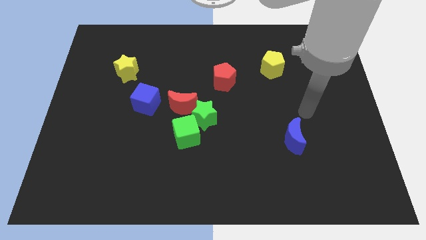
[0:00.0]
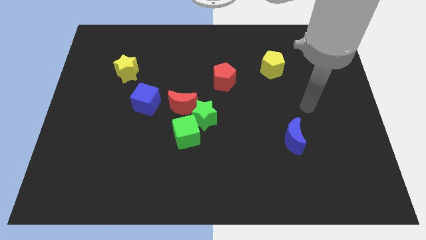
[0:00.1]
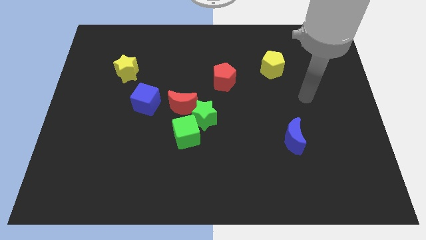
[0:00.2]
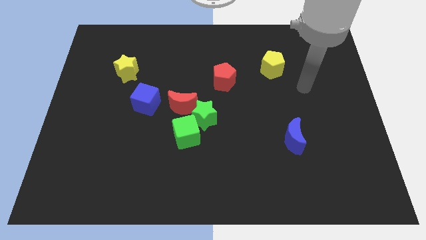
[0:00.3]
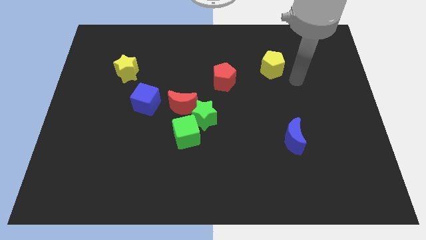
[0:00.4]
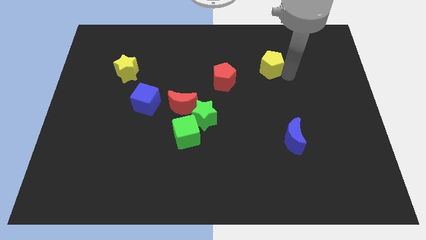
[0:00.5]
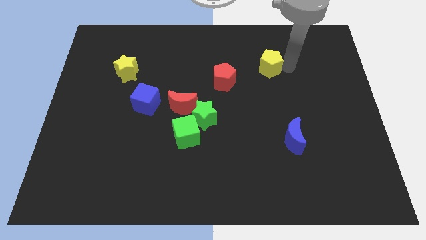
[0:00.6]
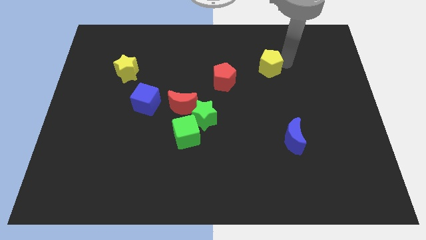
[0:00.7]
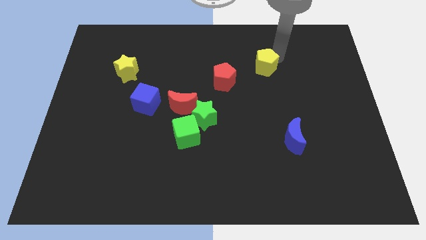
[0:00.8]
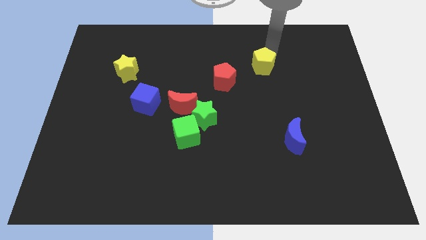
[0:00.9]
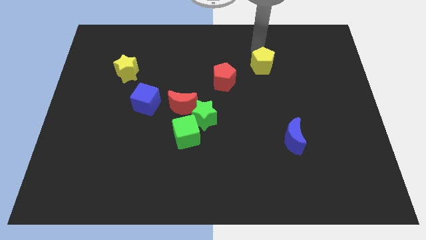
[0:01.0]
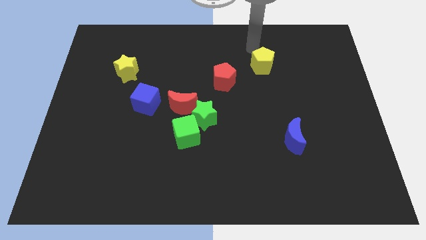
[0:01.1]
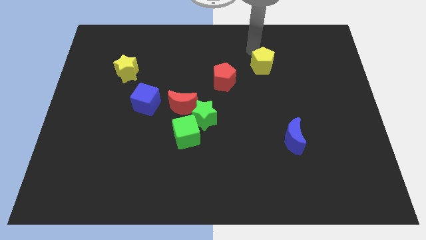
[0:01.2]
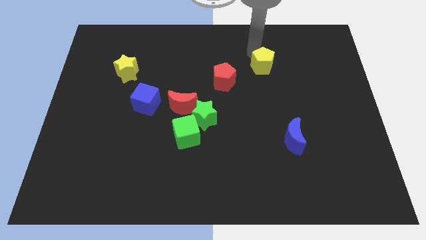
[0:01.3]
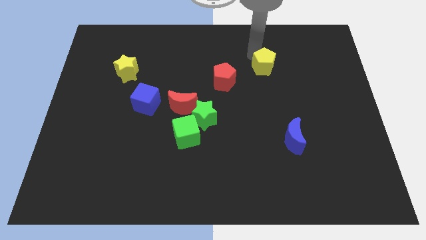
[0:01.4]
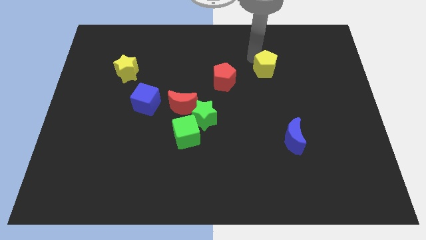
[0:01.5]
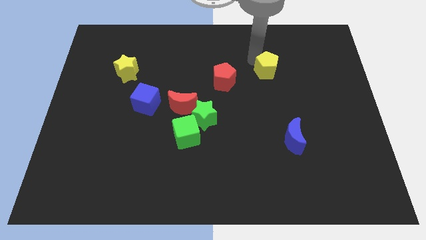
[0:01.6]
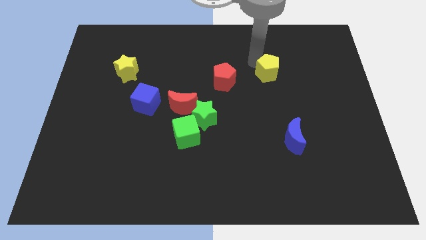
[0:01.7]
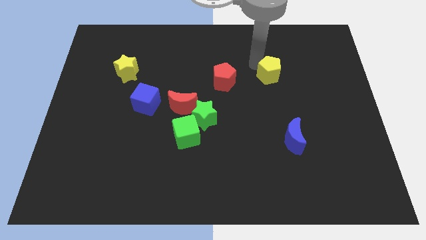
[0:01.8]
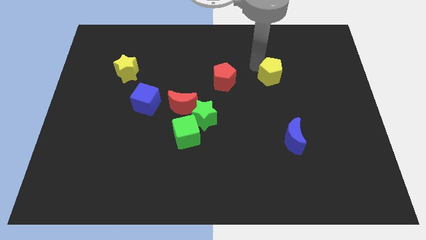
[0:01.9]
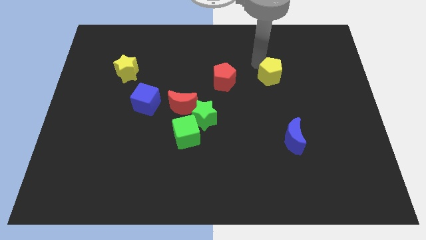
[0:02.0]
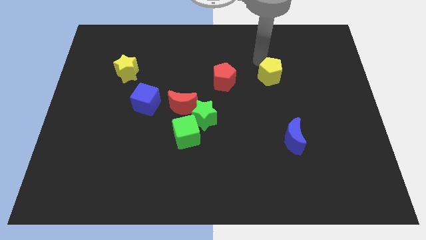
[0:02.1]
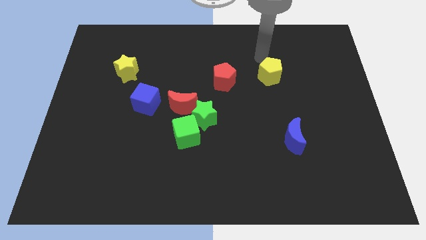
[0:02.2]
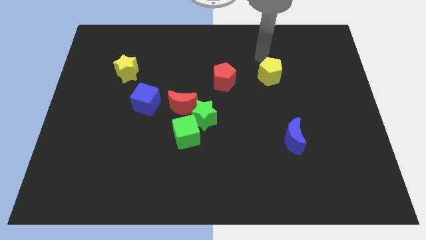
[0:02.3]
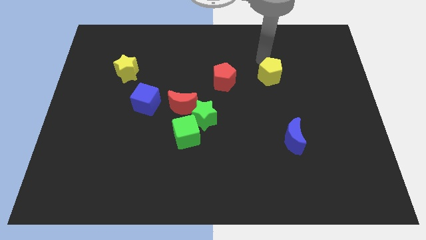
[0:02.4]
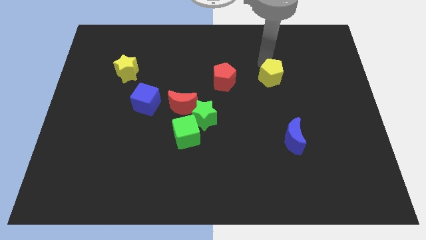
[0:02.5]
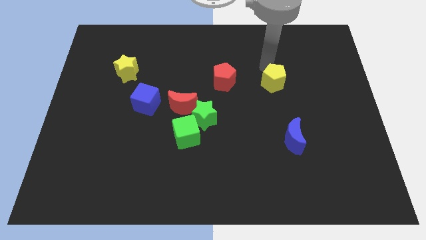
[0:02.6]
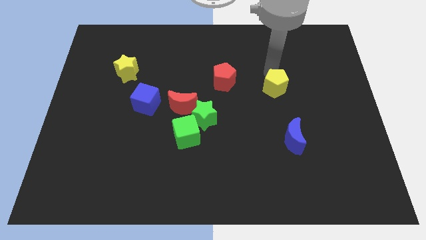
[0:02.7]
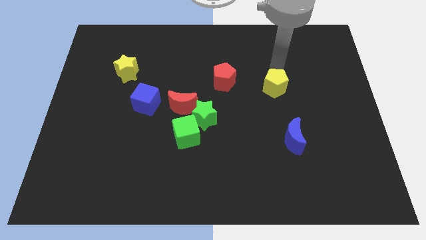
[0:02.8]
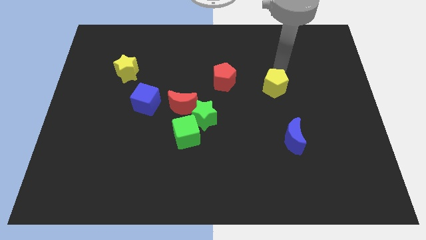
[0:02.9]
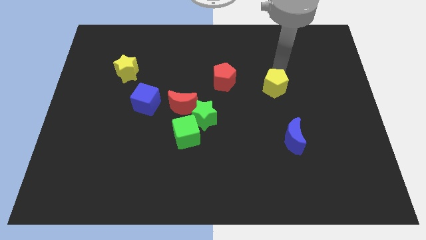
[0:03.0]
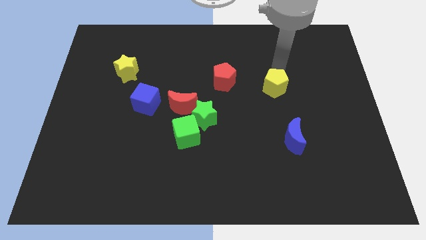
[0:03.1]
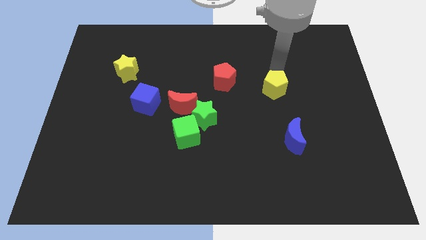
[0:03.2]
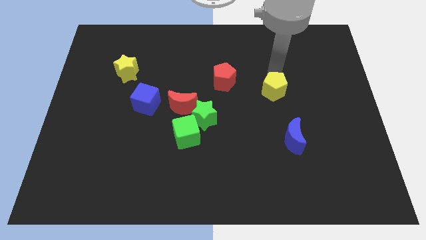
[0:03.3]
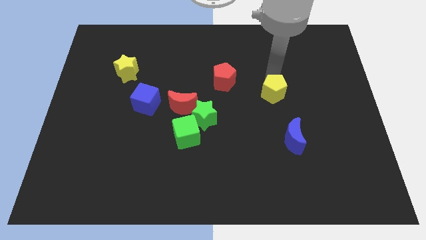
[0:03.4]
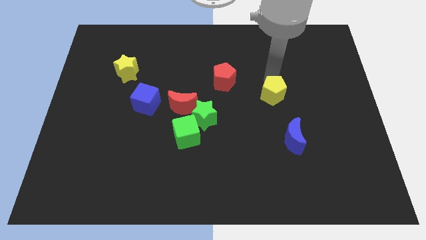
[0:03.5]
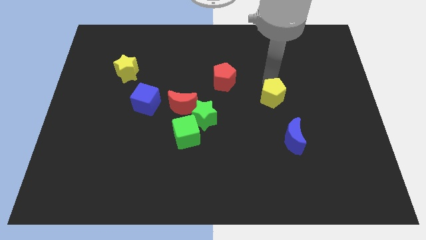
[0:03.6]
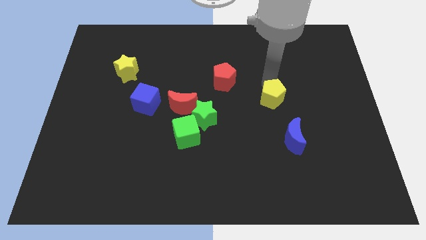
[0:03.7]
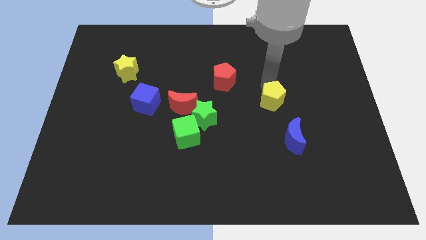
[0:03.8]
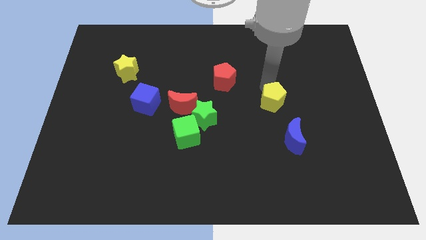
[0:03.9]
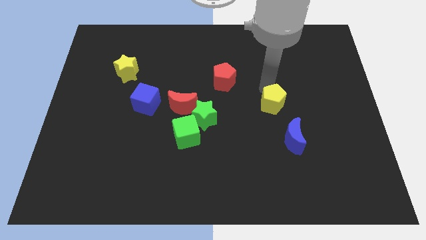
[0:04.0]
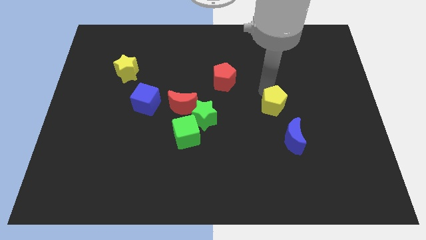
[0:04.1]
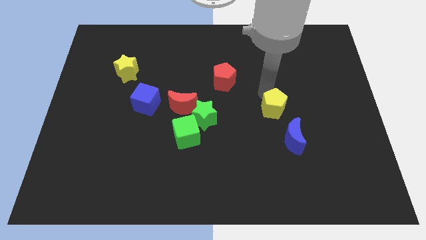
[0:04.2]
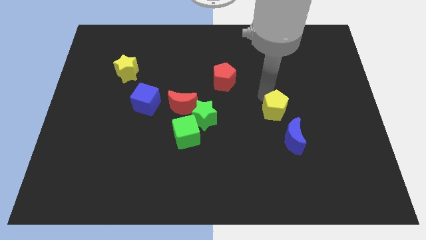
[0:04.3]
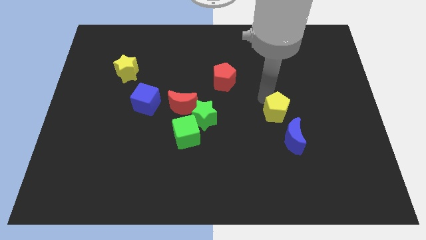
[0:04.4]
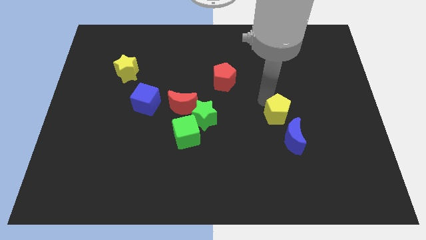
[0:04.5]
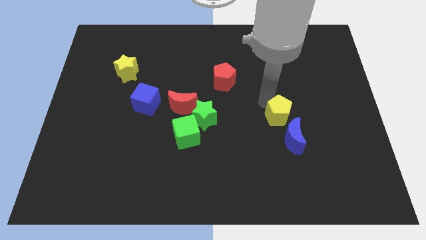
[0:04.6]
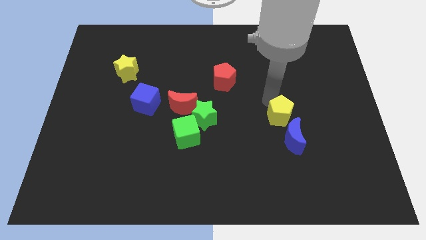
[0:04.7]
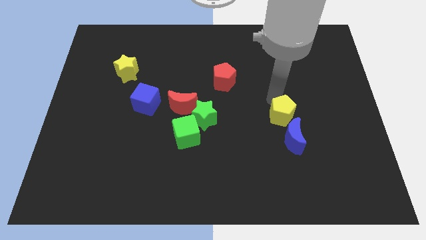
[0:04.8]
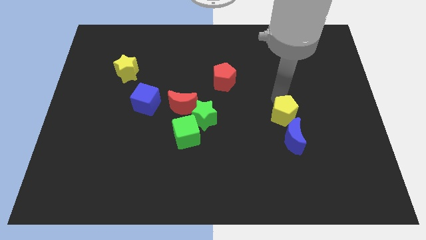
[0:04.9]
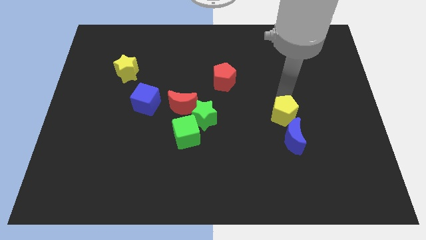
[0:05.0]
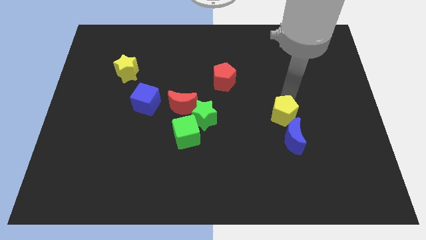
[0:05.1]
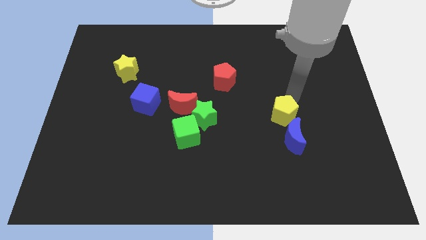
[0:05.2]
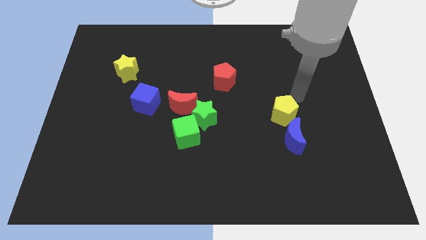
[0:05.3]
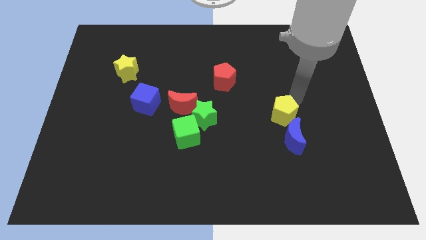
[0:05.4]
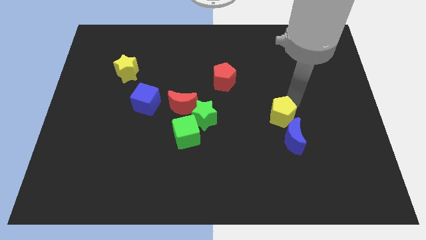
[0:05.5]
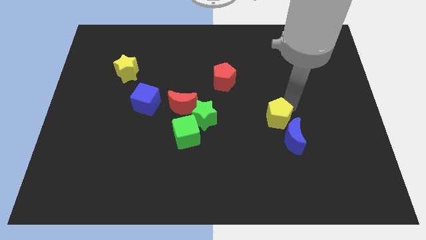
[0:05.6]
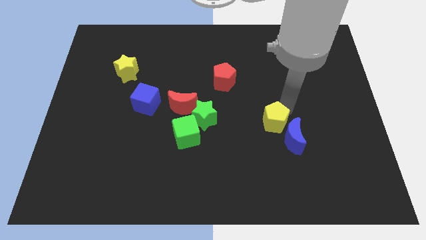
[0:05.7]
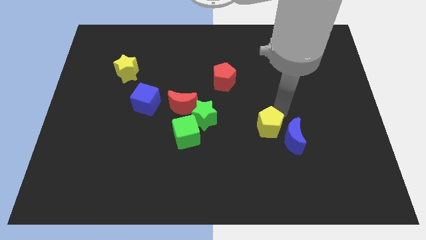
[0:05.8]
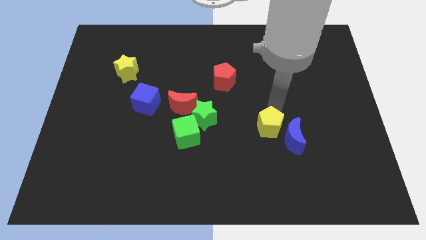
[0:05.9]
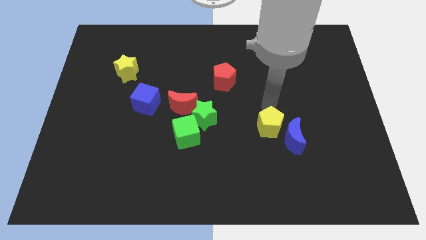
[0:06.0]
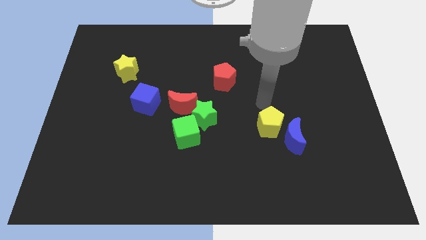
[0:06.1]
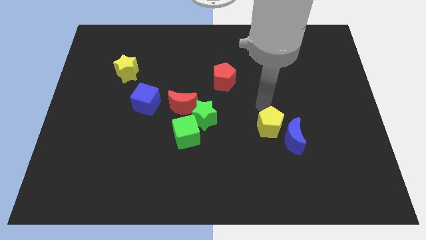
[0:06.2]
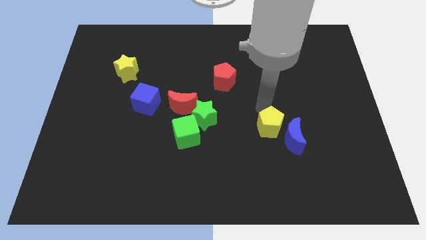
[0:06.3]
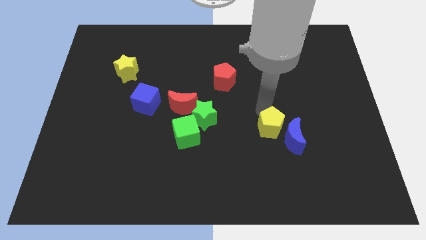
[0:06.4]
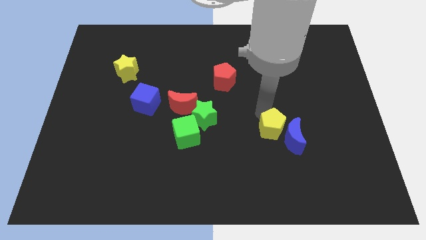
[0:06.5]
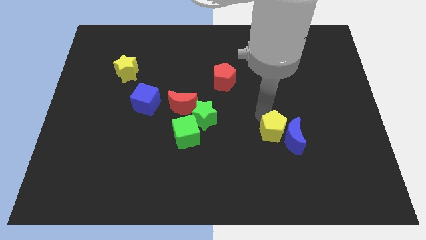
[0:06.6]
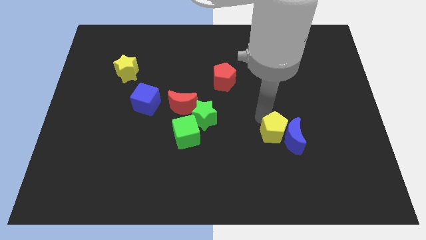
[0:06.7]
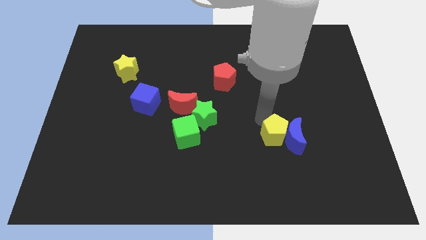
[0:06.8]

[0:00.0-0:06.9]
push the yellow pentagon down

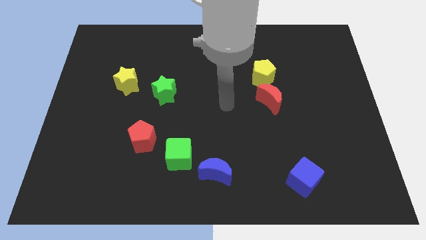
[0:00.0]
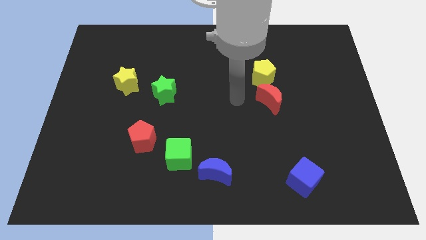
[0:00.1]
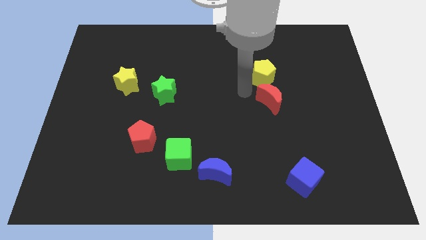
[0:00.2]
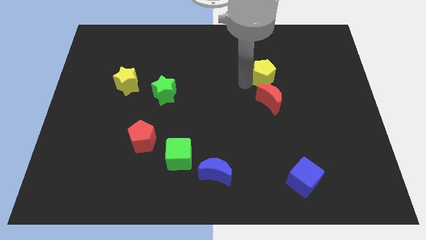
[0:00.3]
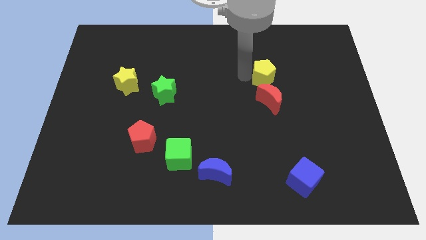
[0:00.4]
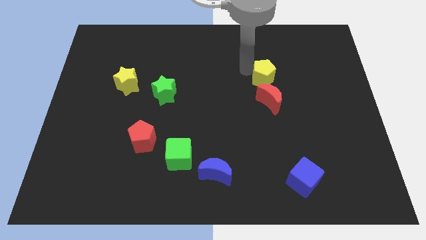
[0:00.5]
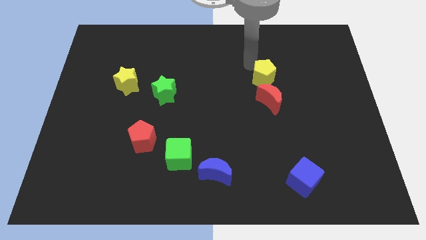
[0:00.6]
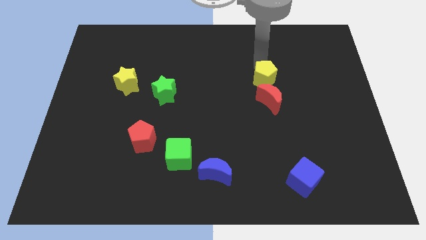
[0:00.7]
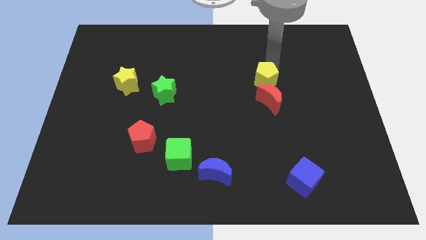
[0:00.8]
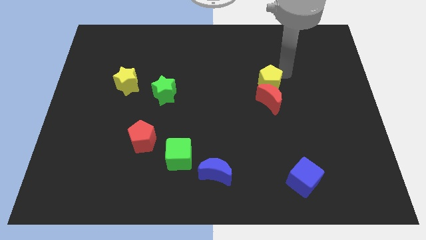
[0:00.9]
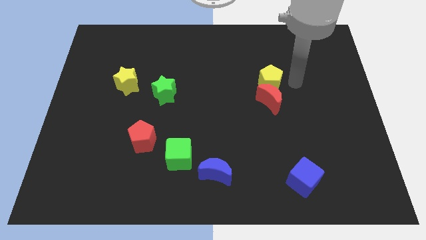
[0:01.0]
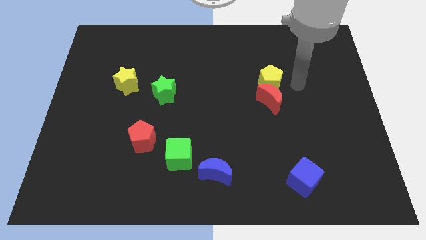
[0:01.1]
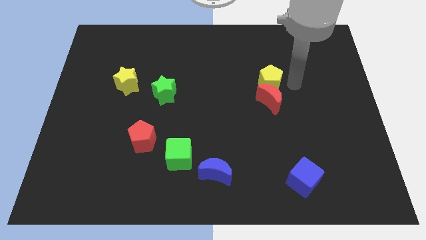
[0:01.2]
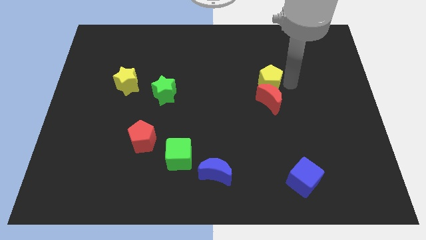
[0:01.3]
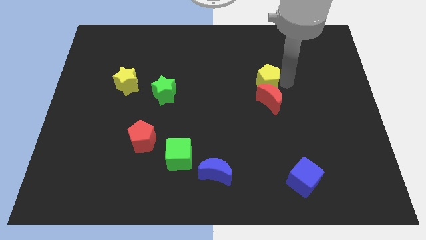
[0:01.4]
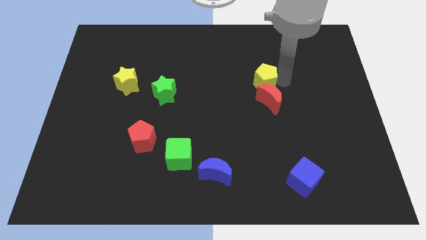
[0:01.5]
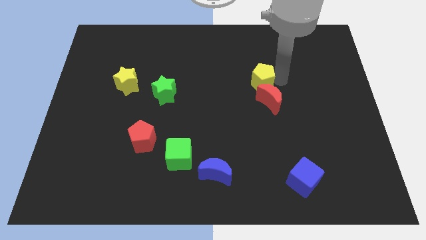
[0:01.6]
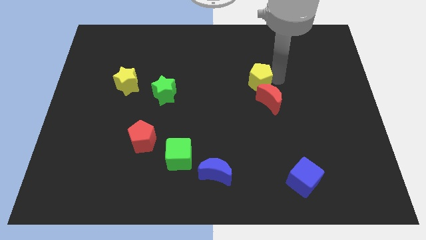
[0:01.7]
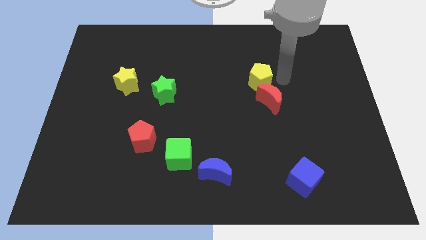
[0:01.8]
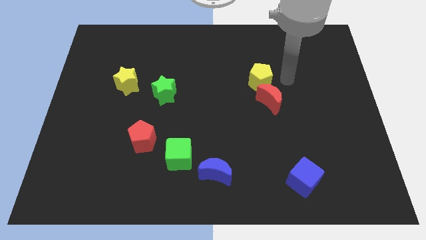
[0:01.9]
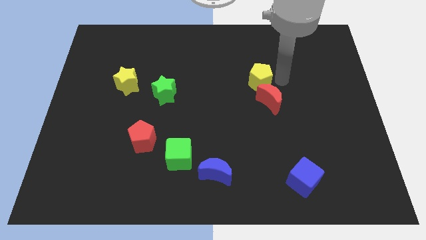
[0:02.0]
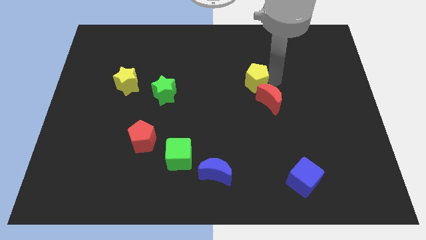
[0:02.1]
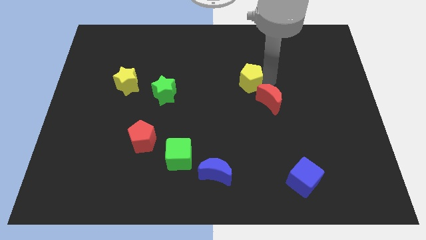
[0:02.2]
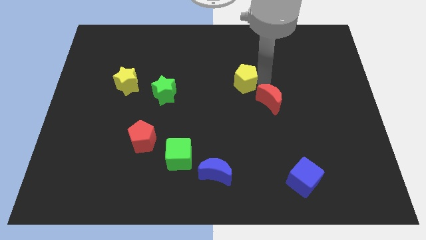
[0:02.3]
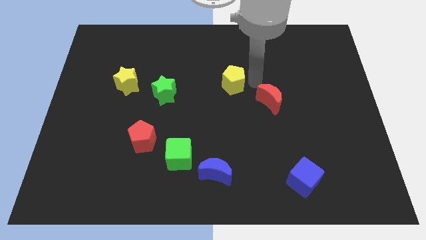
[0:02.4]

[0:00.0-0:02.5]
move the yellow pentagon left slightly
